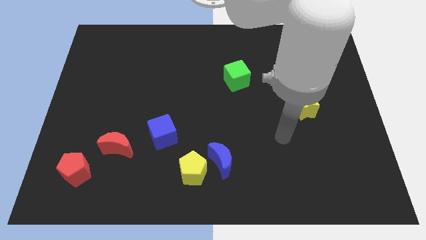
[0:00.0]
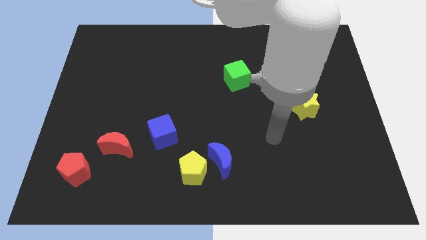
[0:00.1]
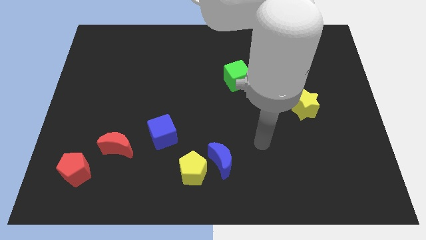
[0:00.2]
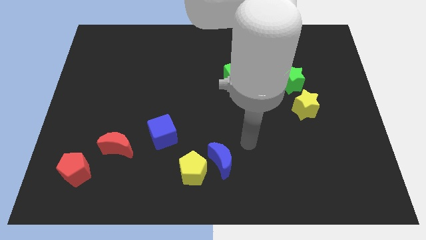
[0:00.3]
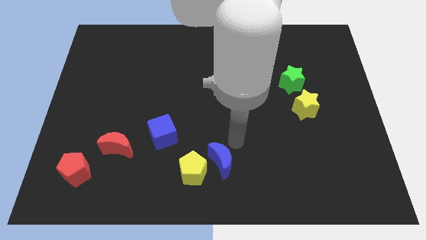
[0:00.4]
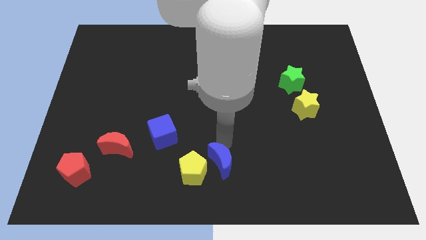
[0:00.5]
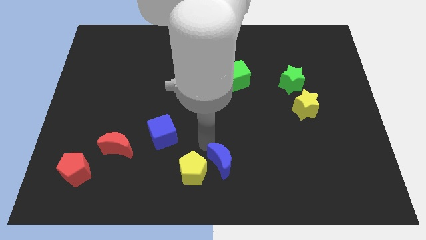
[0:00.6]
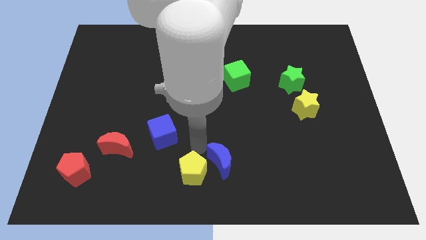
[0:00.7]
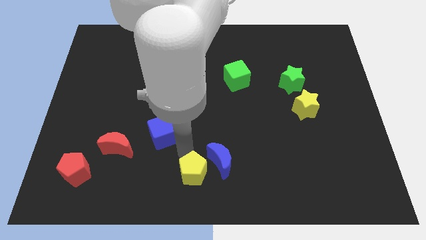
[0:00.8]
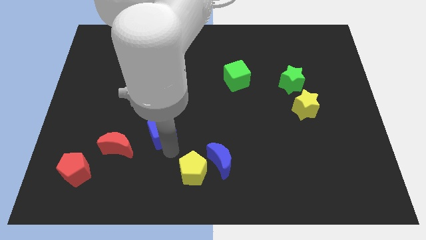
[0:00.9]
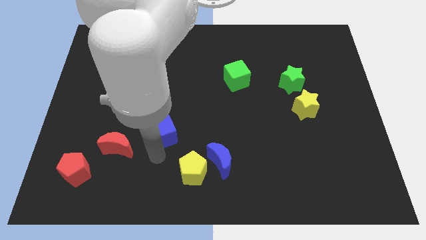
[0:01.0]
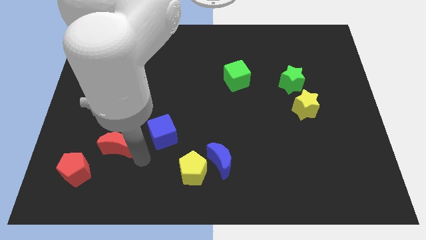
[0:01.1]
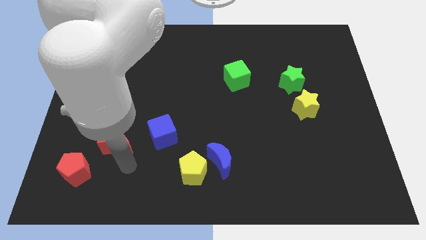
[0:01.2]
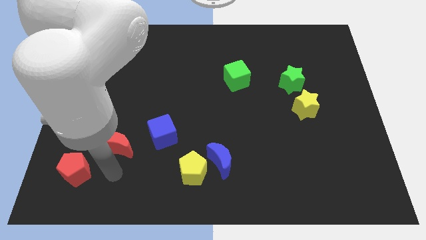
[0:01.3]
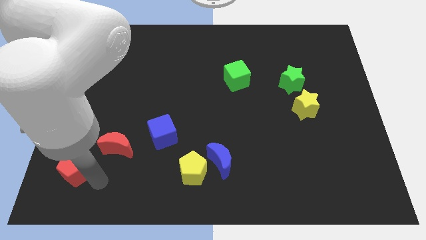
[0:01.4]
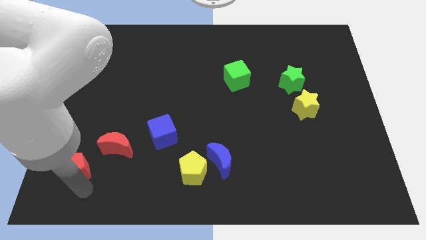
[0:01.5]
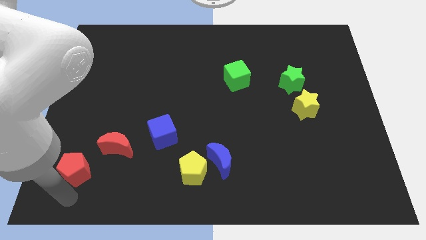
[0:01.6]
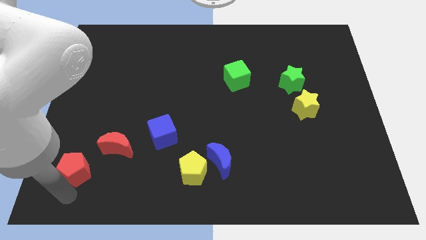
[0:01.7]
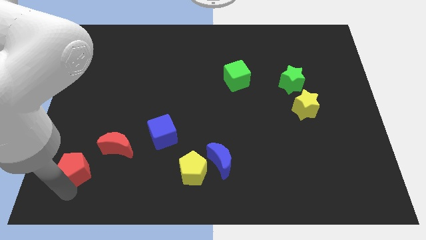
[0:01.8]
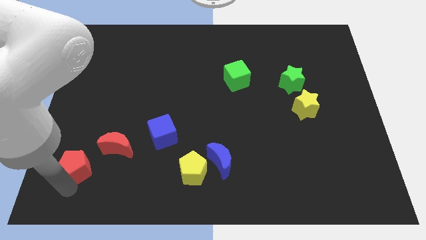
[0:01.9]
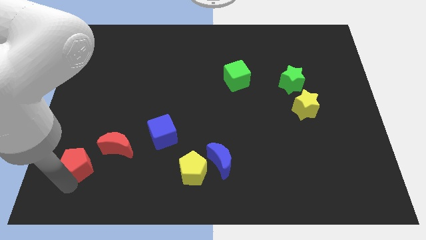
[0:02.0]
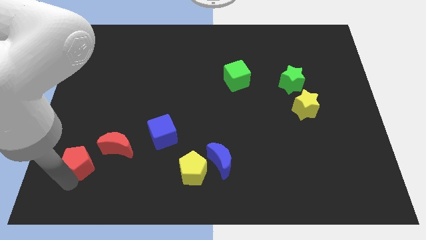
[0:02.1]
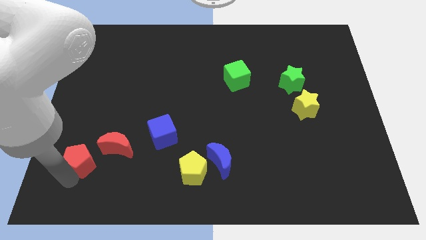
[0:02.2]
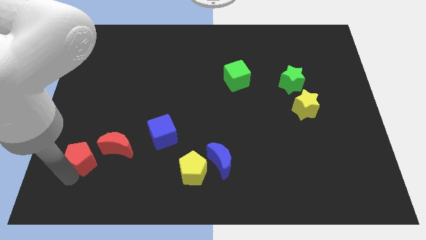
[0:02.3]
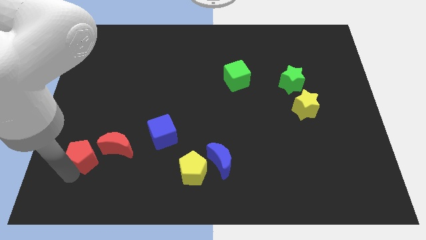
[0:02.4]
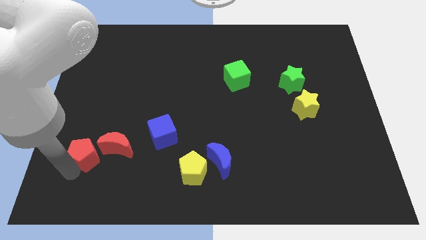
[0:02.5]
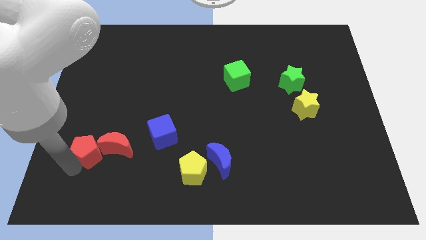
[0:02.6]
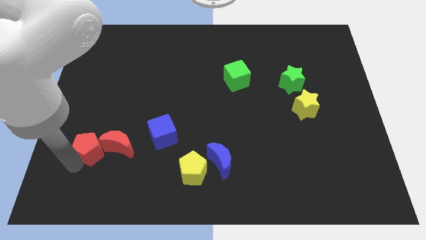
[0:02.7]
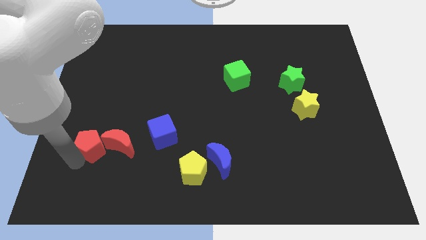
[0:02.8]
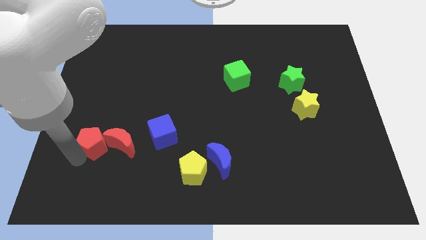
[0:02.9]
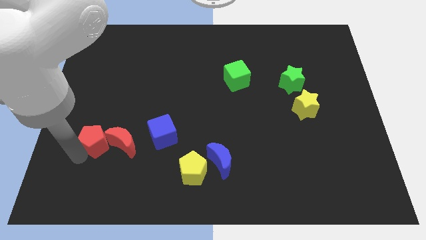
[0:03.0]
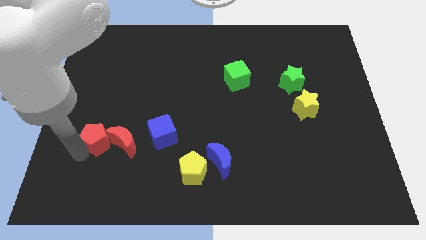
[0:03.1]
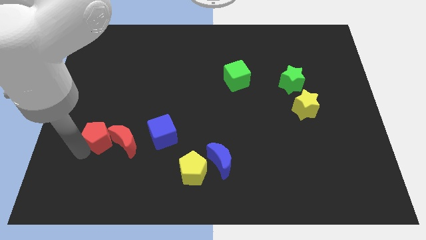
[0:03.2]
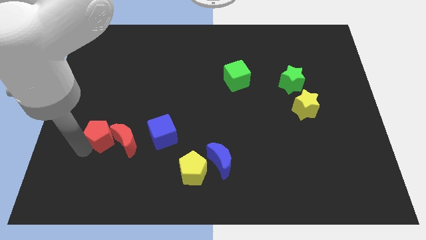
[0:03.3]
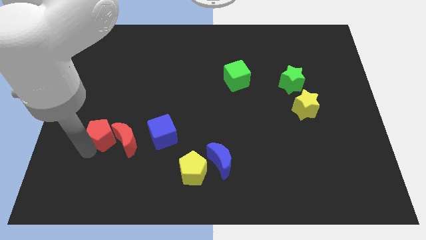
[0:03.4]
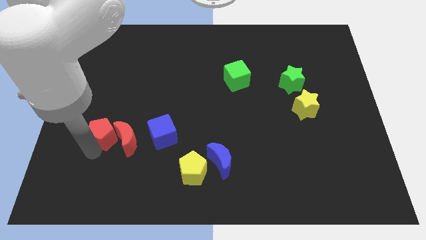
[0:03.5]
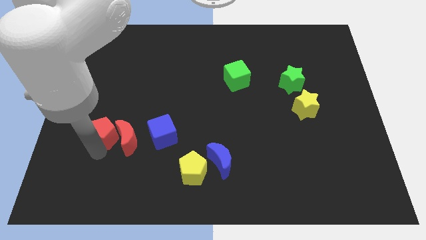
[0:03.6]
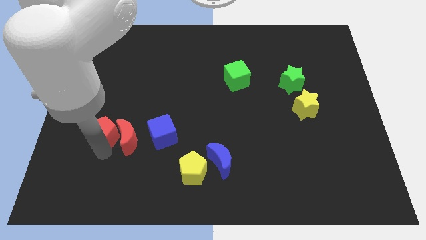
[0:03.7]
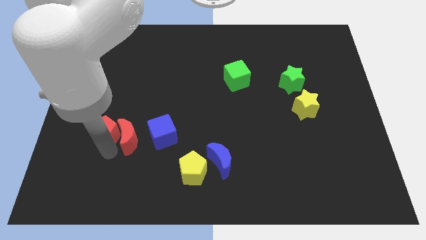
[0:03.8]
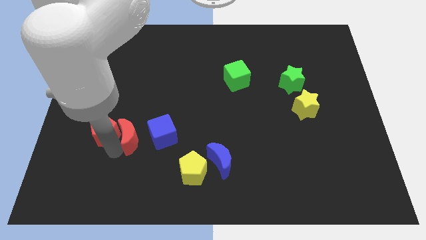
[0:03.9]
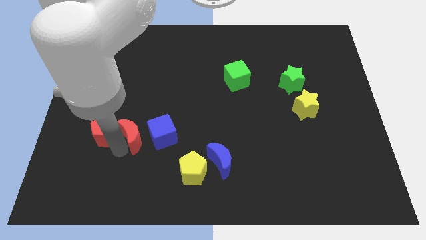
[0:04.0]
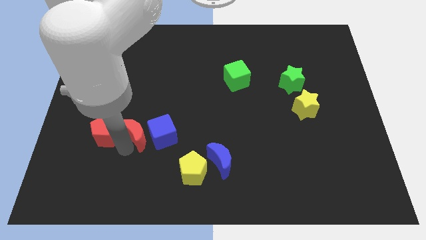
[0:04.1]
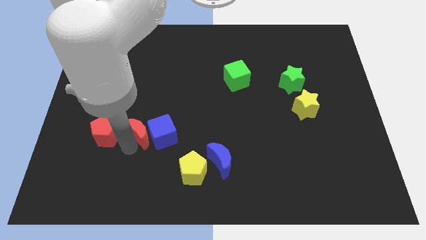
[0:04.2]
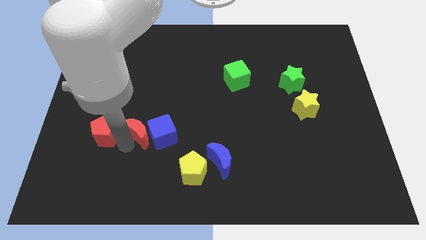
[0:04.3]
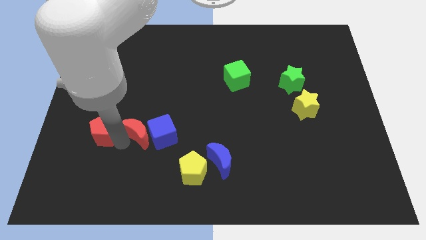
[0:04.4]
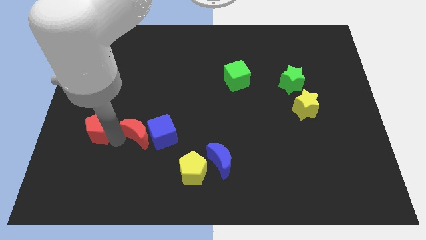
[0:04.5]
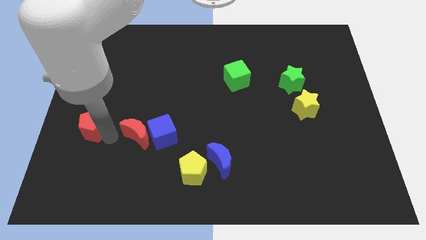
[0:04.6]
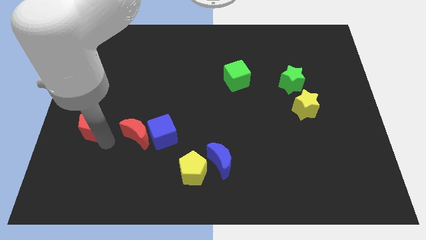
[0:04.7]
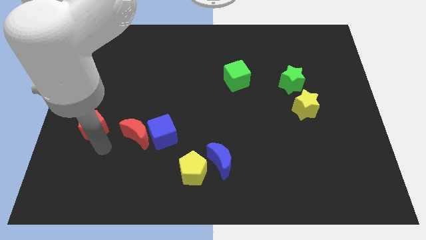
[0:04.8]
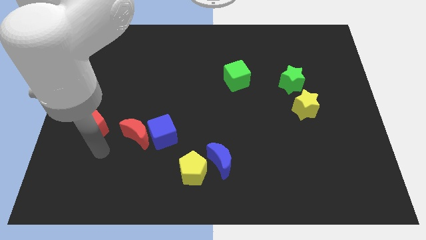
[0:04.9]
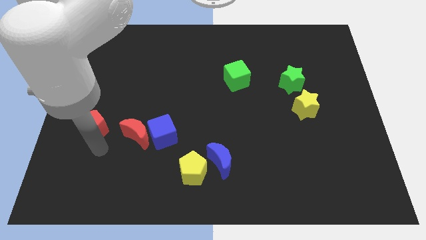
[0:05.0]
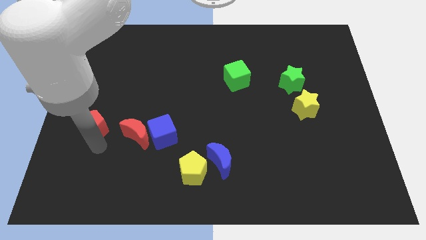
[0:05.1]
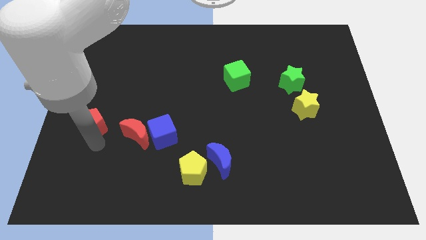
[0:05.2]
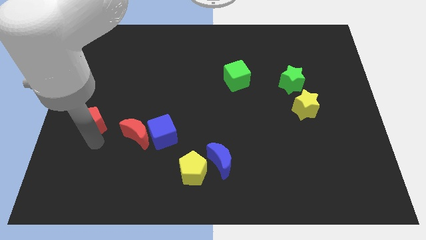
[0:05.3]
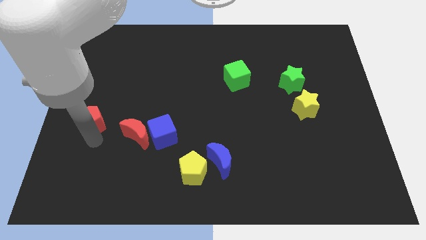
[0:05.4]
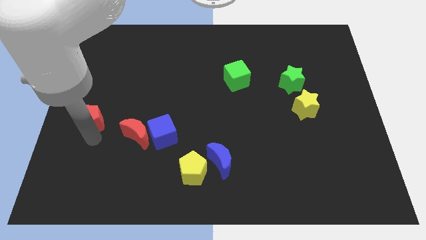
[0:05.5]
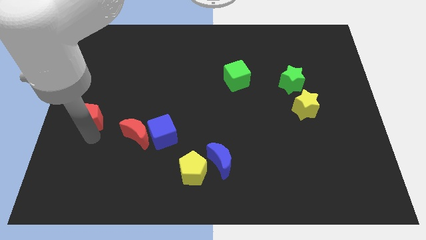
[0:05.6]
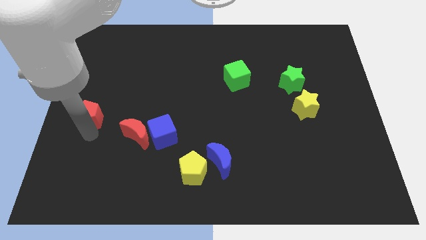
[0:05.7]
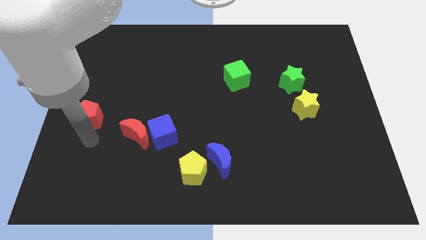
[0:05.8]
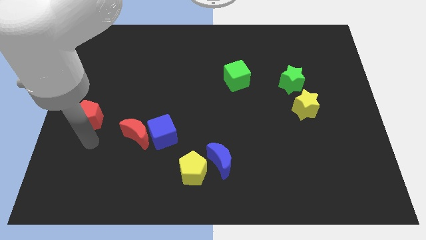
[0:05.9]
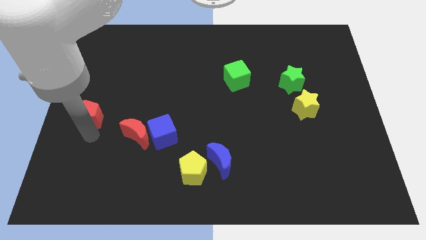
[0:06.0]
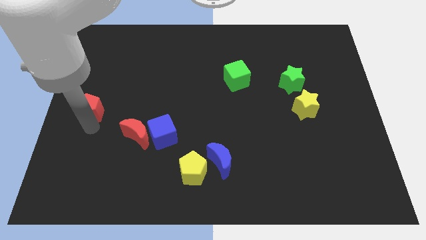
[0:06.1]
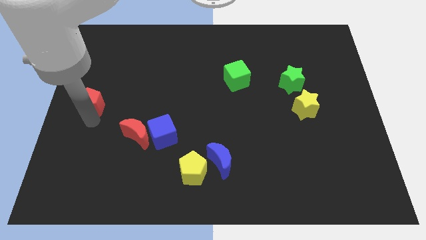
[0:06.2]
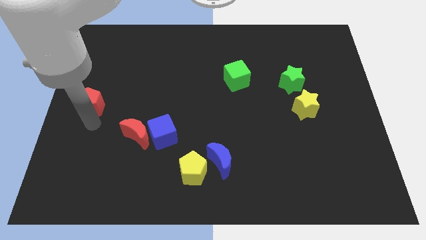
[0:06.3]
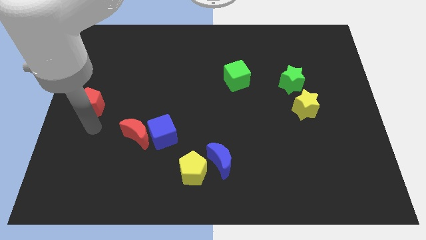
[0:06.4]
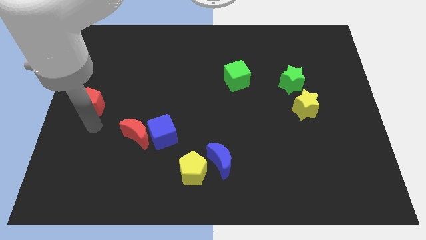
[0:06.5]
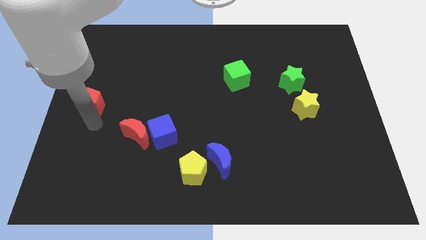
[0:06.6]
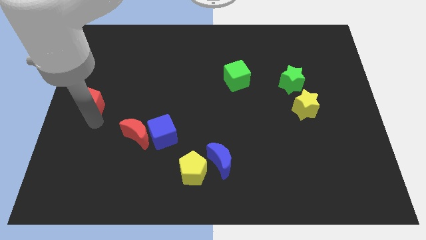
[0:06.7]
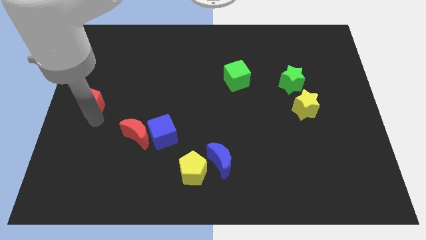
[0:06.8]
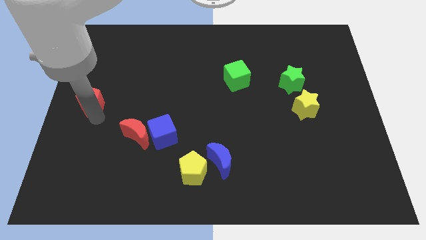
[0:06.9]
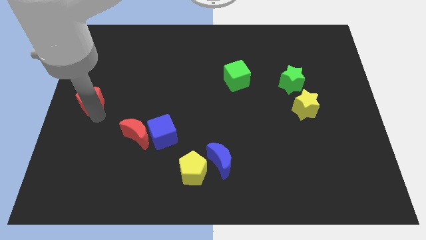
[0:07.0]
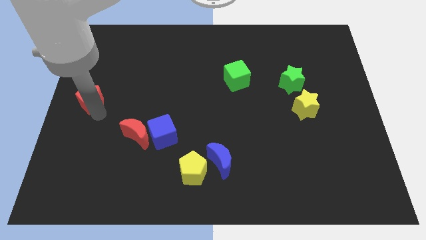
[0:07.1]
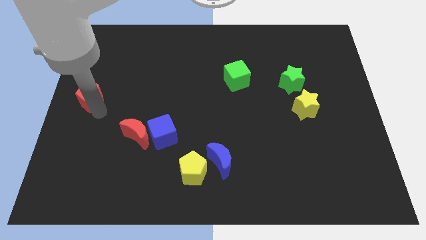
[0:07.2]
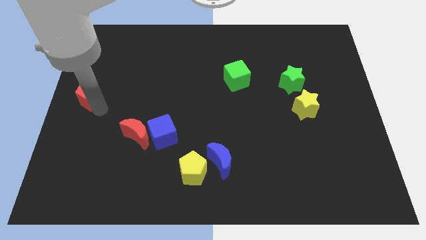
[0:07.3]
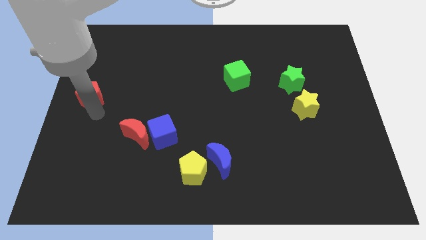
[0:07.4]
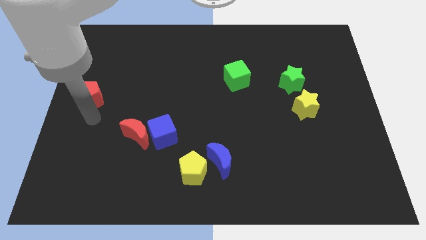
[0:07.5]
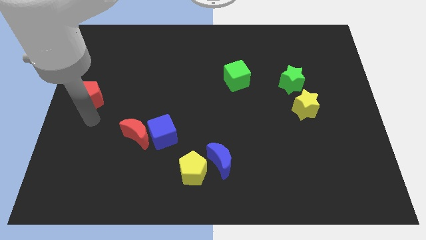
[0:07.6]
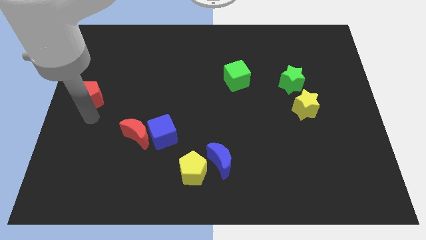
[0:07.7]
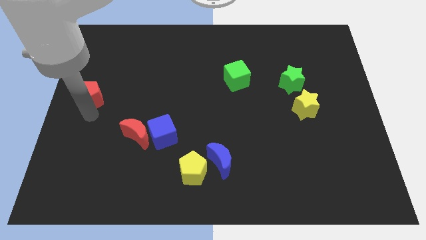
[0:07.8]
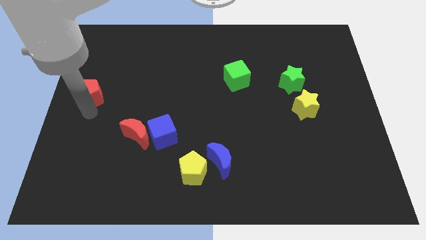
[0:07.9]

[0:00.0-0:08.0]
push the red pentagon up

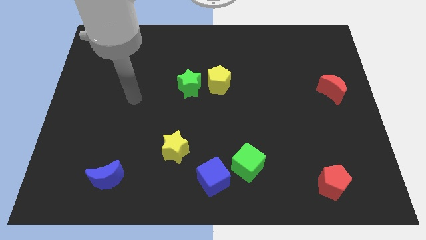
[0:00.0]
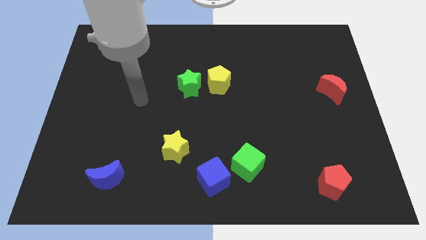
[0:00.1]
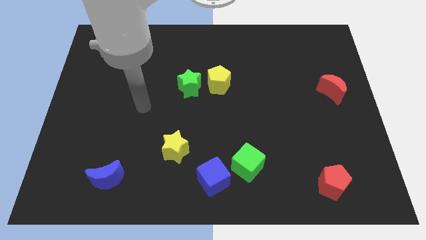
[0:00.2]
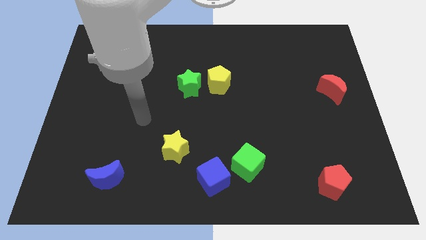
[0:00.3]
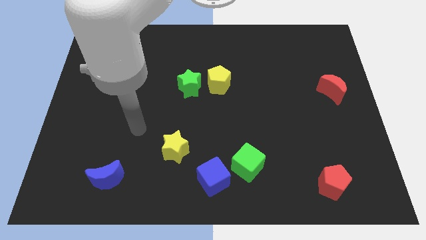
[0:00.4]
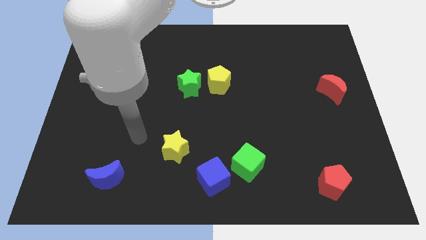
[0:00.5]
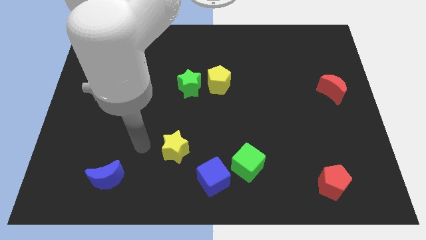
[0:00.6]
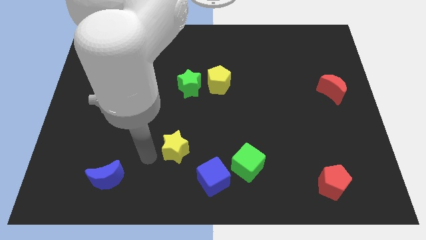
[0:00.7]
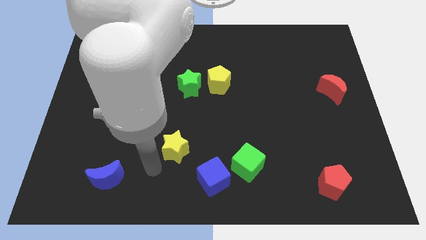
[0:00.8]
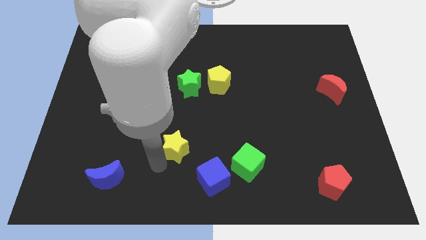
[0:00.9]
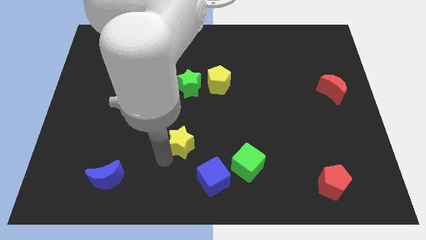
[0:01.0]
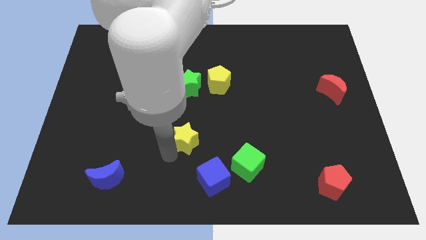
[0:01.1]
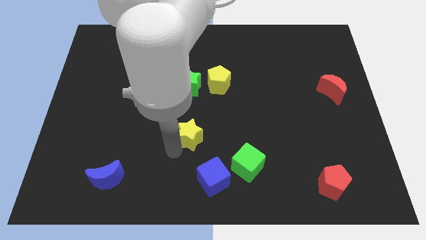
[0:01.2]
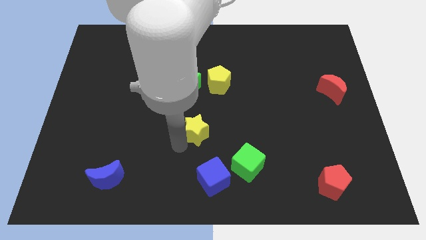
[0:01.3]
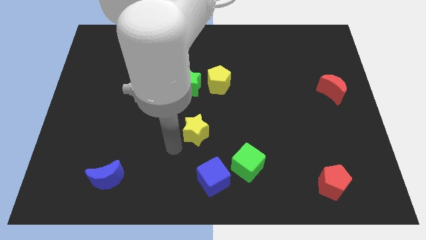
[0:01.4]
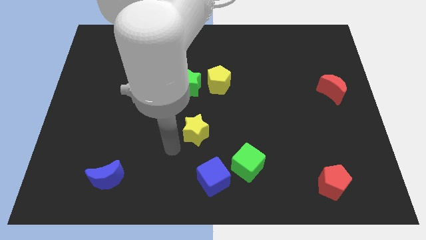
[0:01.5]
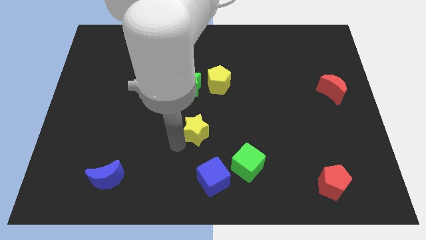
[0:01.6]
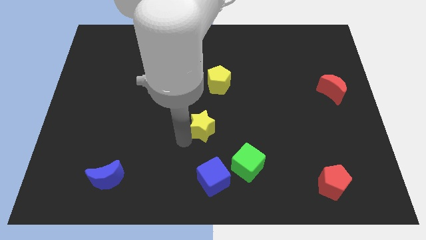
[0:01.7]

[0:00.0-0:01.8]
push the yellow star diagonally up and to the right a little
